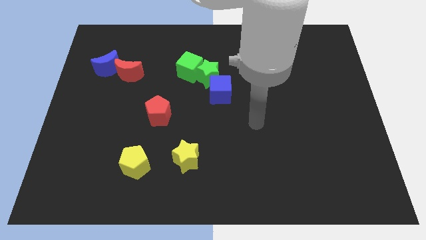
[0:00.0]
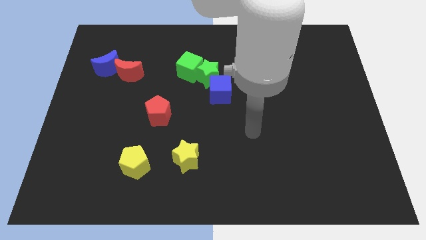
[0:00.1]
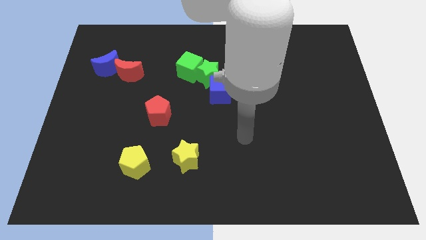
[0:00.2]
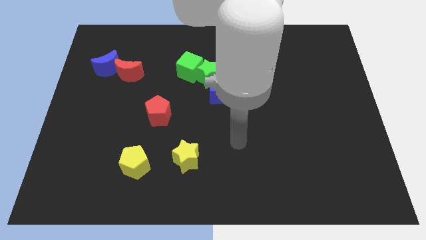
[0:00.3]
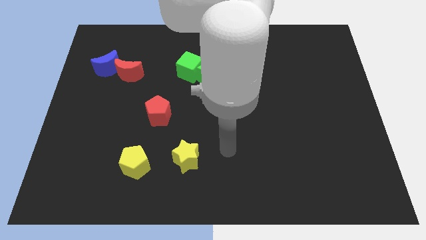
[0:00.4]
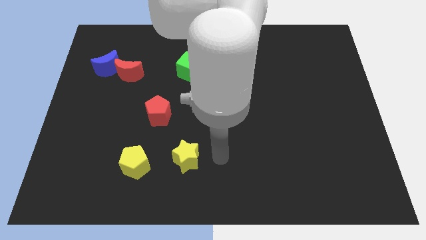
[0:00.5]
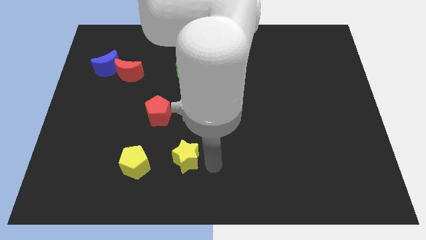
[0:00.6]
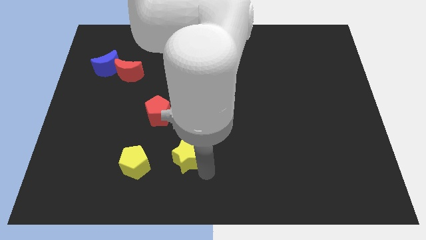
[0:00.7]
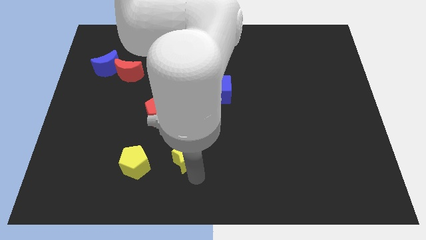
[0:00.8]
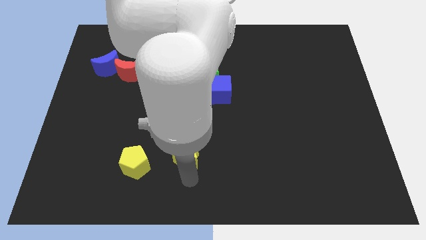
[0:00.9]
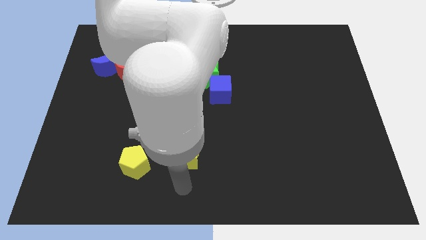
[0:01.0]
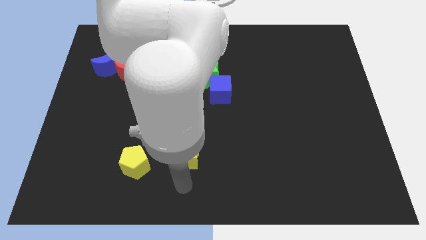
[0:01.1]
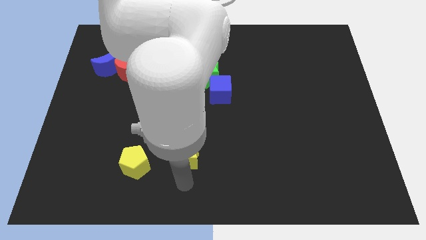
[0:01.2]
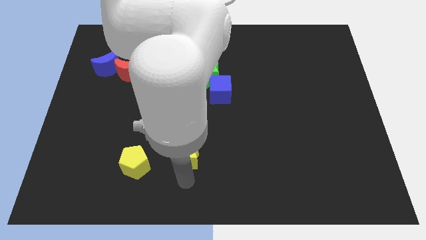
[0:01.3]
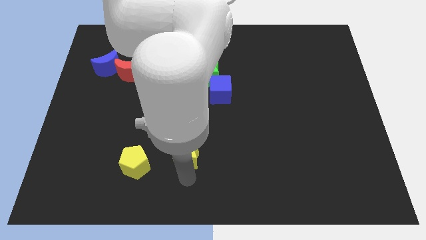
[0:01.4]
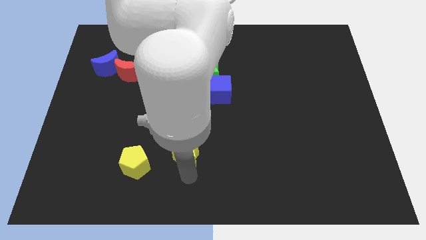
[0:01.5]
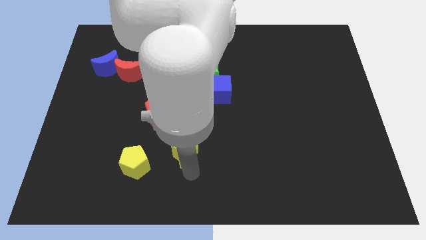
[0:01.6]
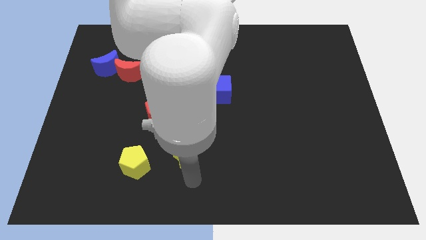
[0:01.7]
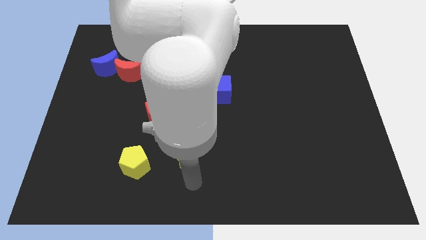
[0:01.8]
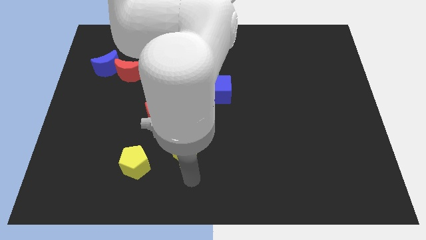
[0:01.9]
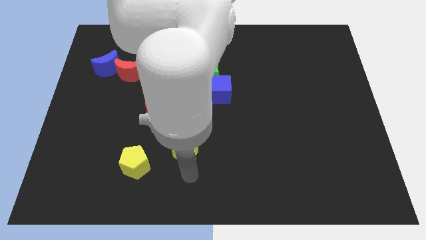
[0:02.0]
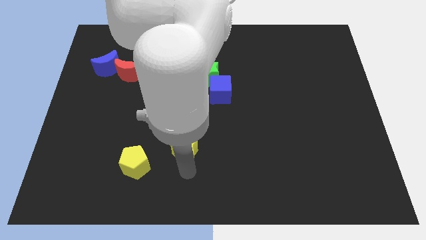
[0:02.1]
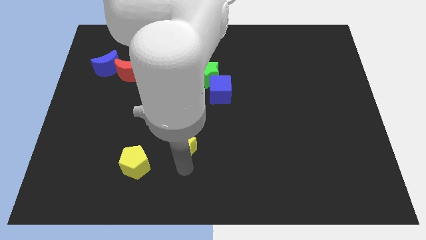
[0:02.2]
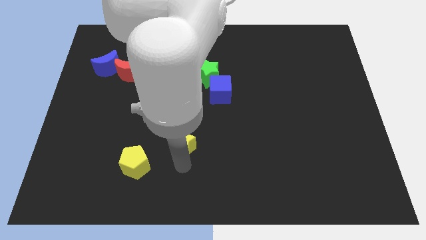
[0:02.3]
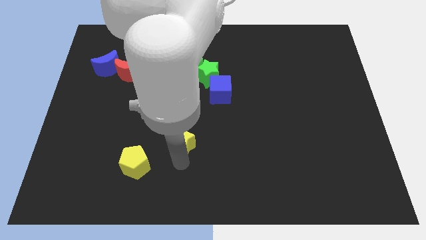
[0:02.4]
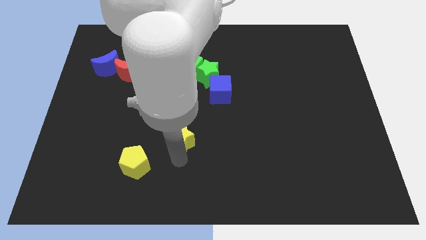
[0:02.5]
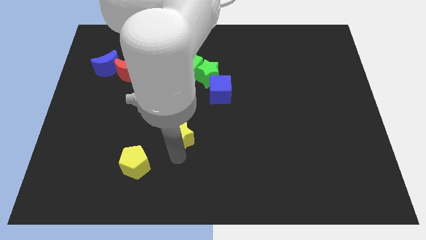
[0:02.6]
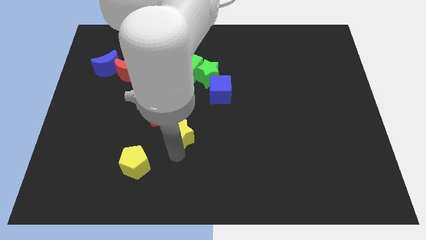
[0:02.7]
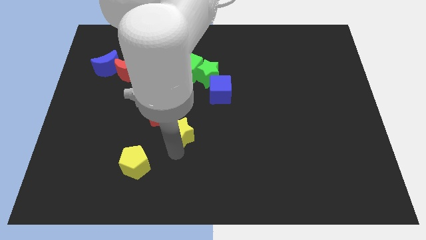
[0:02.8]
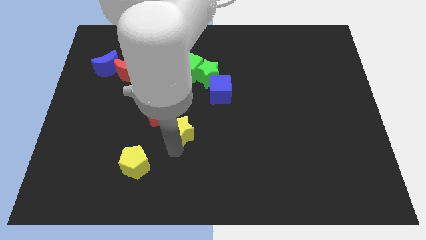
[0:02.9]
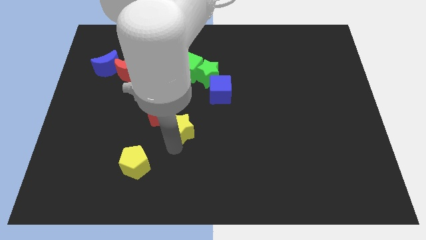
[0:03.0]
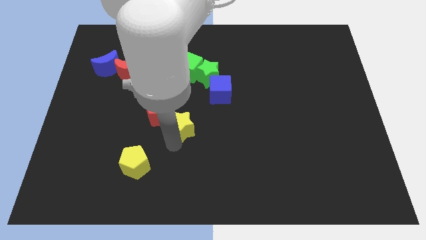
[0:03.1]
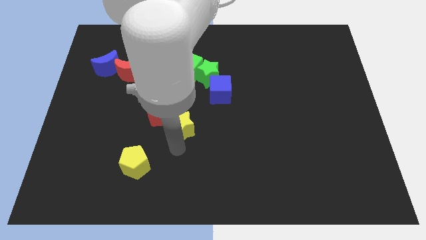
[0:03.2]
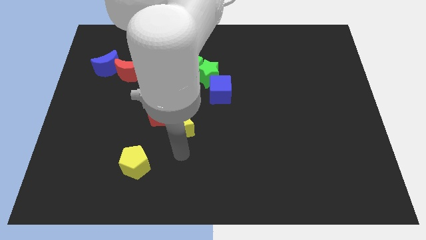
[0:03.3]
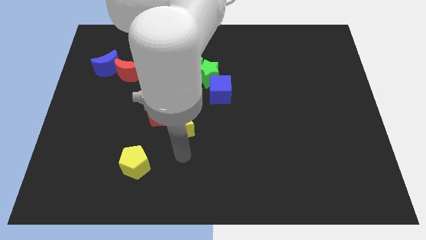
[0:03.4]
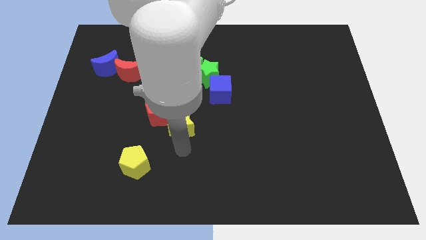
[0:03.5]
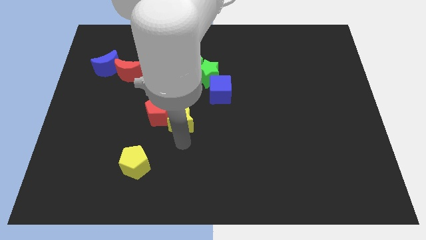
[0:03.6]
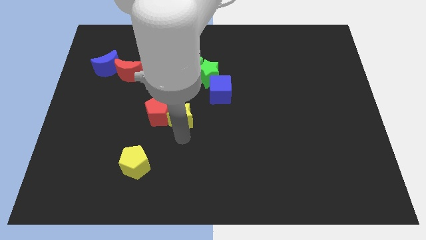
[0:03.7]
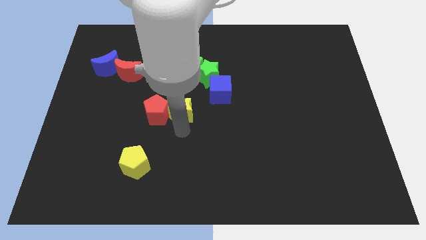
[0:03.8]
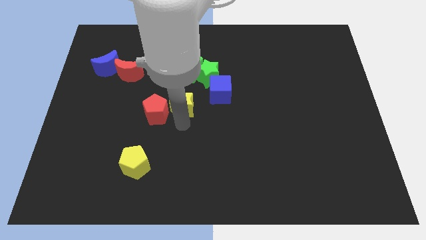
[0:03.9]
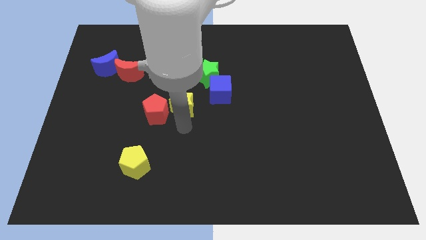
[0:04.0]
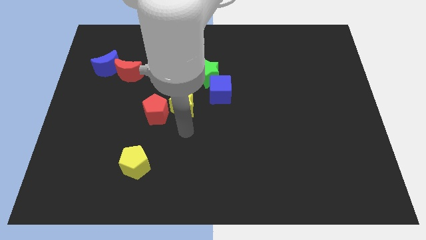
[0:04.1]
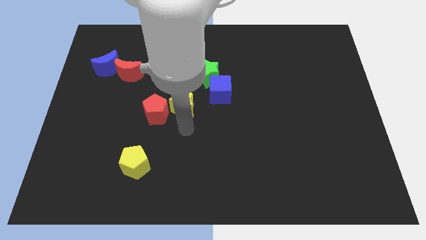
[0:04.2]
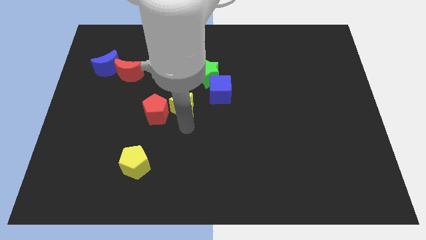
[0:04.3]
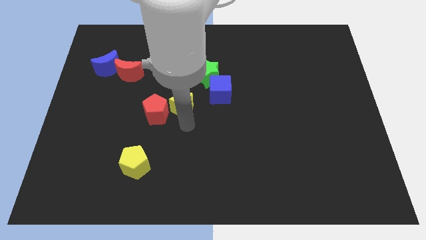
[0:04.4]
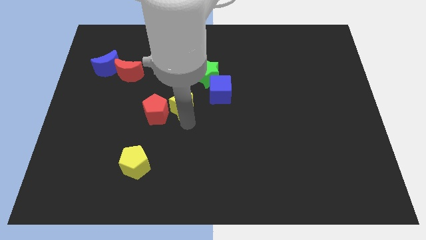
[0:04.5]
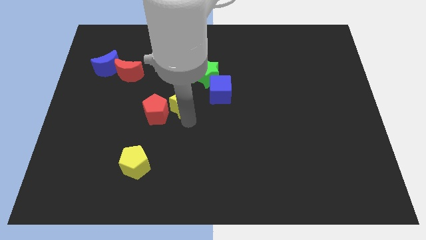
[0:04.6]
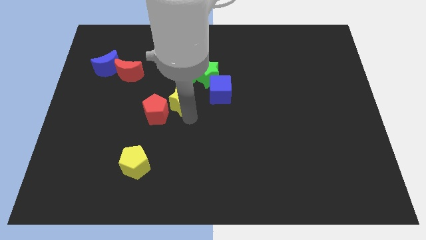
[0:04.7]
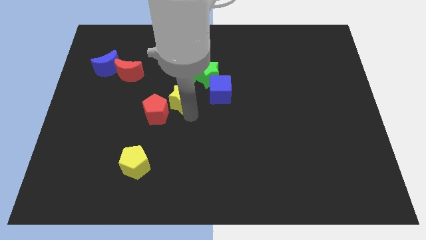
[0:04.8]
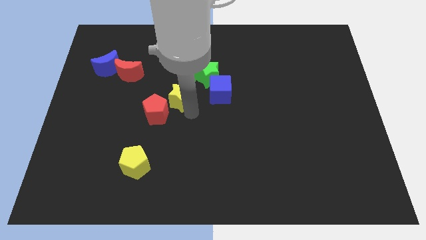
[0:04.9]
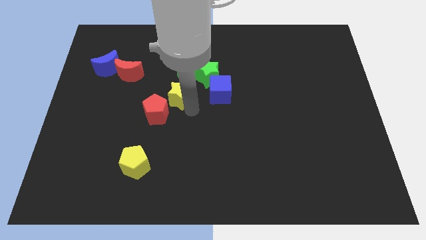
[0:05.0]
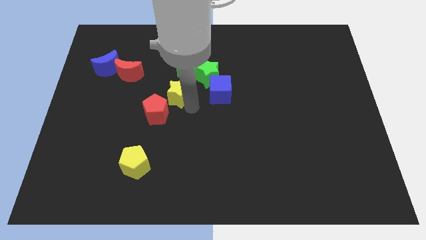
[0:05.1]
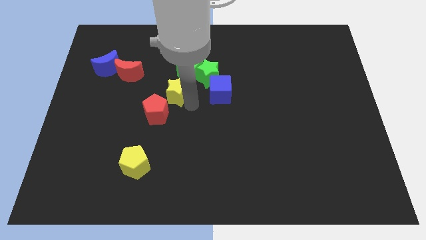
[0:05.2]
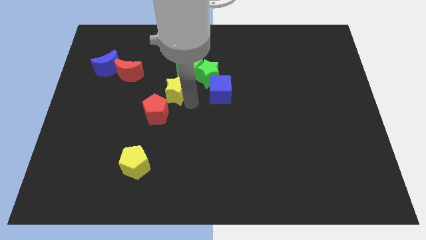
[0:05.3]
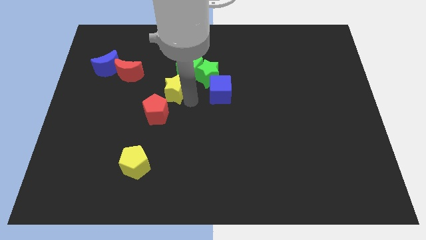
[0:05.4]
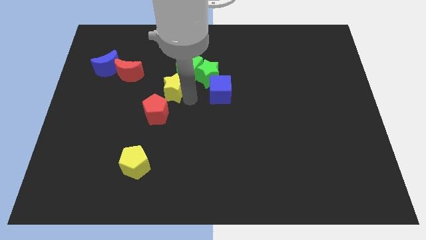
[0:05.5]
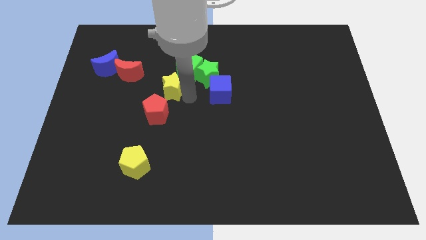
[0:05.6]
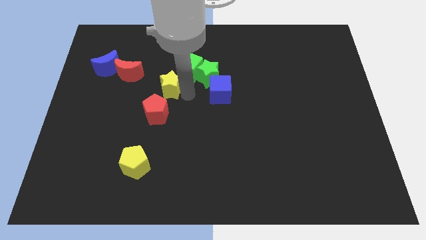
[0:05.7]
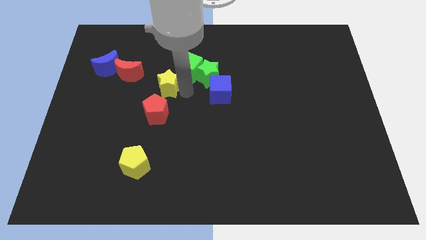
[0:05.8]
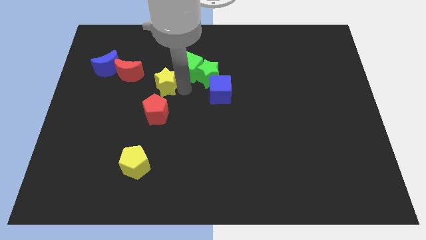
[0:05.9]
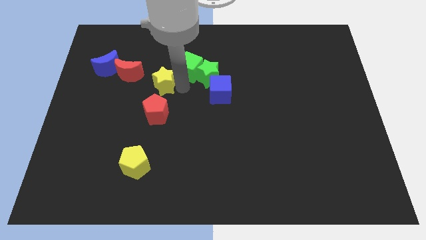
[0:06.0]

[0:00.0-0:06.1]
push the yellow star to the left side of the green cube
